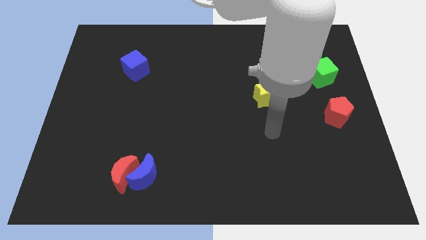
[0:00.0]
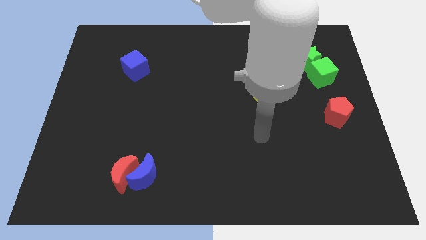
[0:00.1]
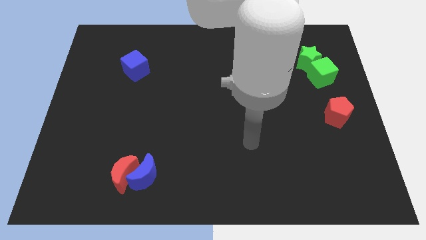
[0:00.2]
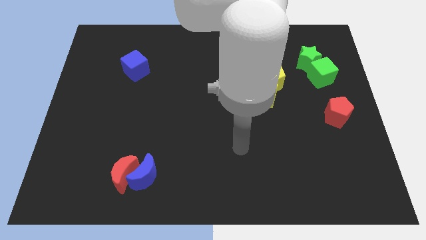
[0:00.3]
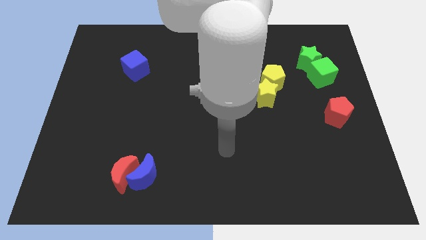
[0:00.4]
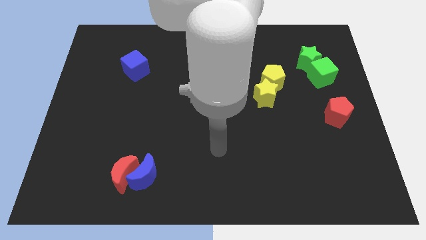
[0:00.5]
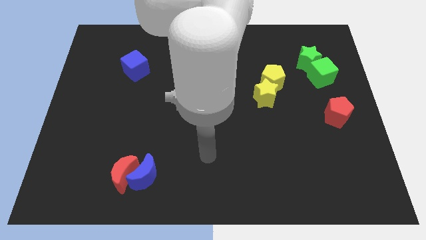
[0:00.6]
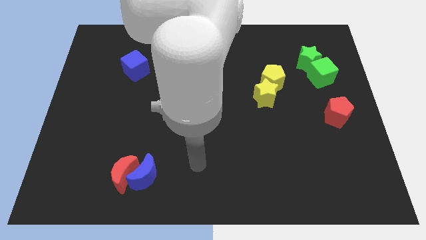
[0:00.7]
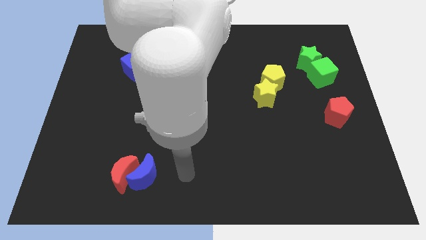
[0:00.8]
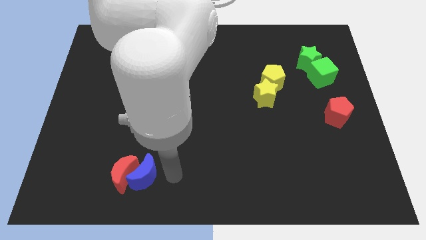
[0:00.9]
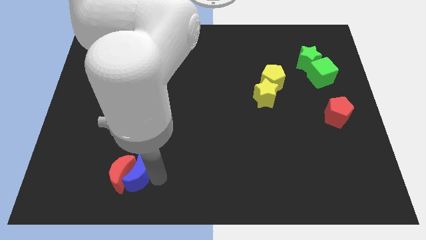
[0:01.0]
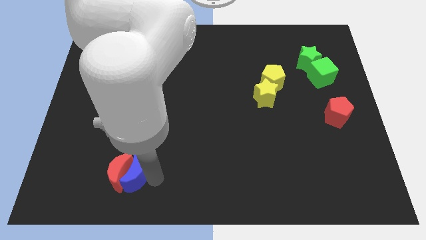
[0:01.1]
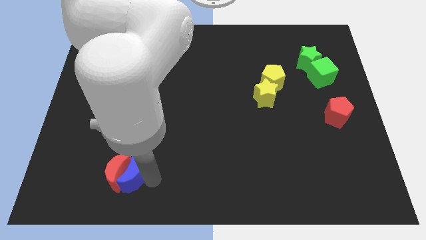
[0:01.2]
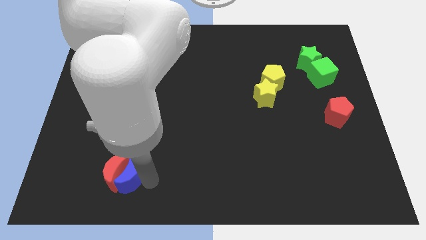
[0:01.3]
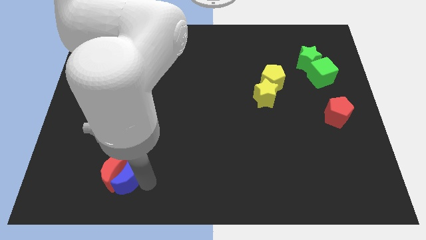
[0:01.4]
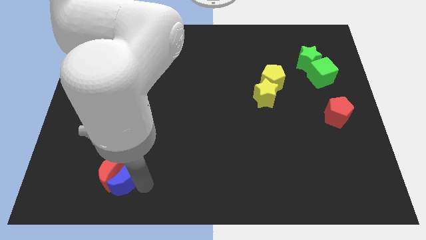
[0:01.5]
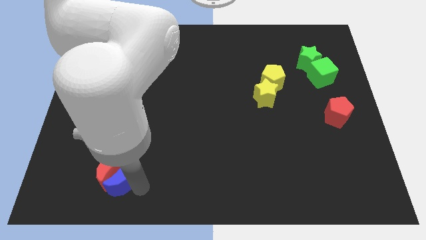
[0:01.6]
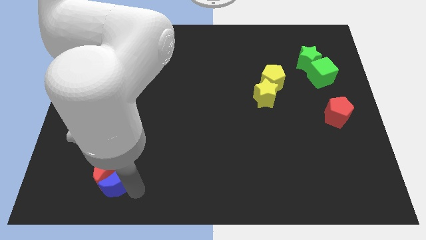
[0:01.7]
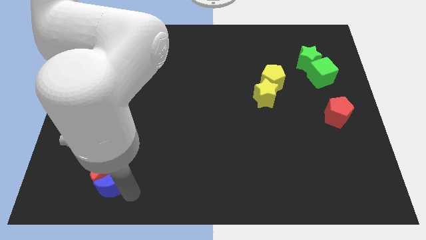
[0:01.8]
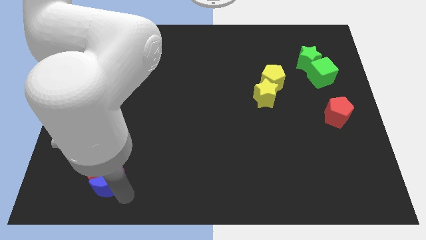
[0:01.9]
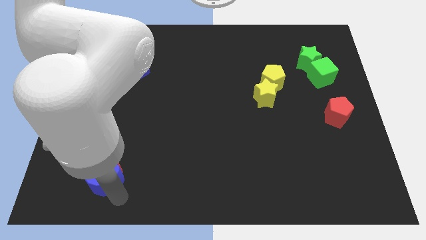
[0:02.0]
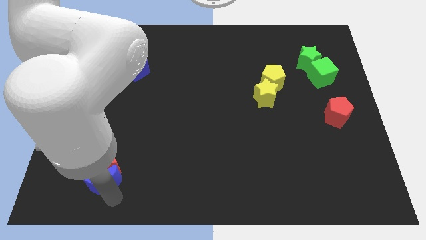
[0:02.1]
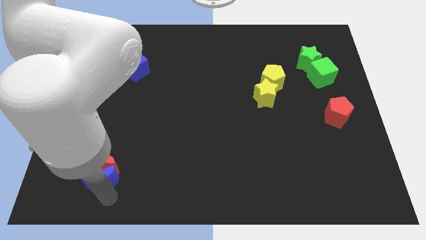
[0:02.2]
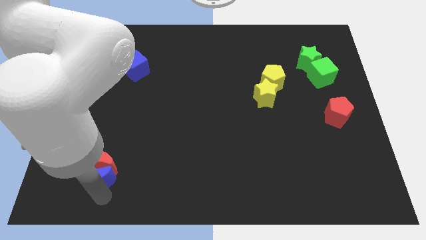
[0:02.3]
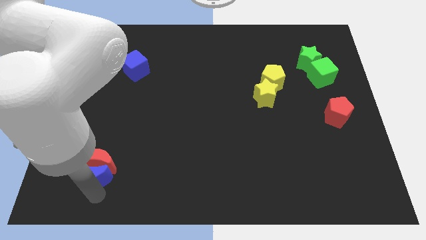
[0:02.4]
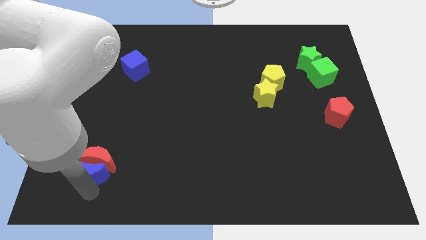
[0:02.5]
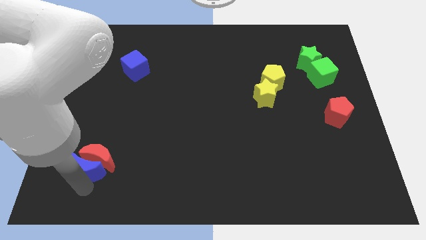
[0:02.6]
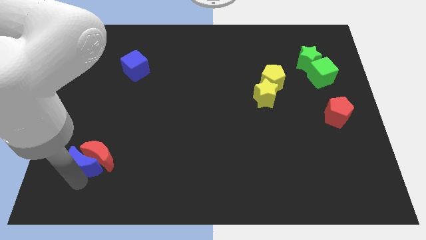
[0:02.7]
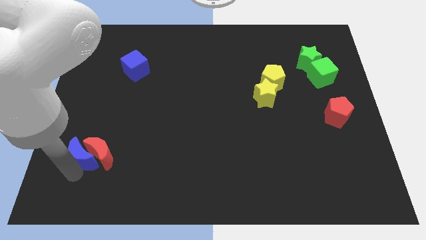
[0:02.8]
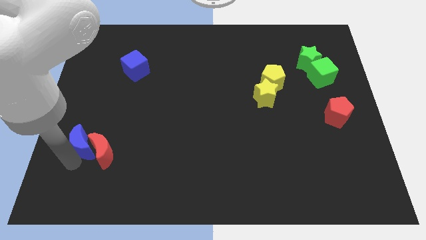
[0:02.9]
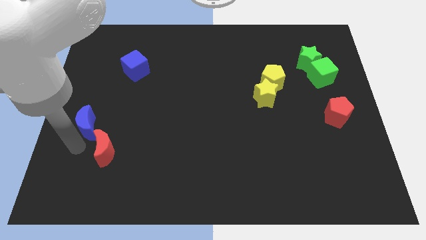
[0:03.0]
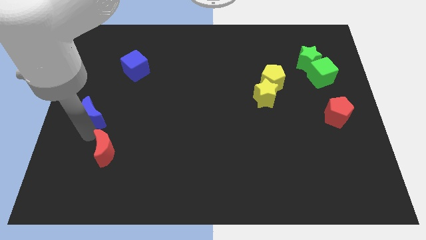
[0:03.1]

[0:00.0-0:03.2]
separate the red moon from the blue moon

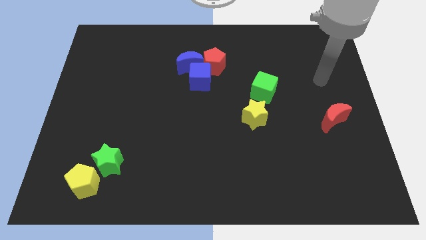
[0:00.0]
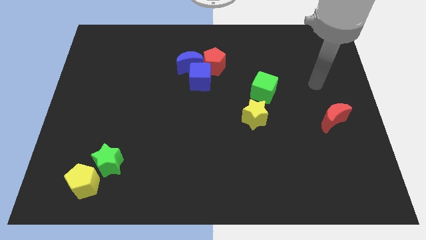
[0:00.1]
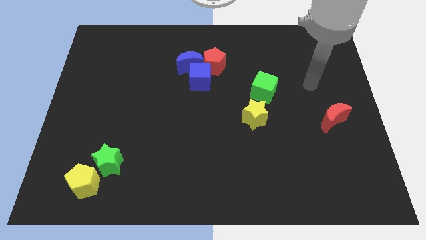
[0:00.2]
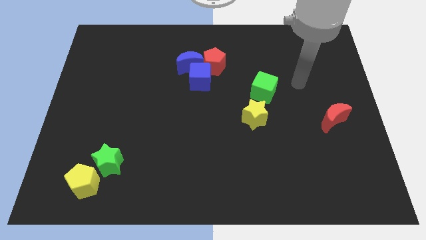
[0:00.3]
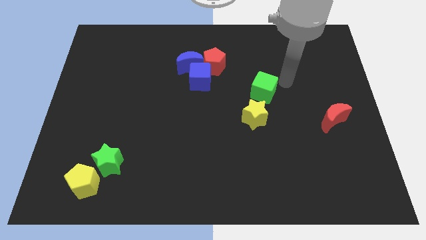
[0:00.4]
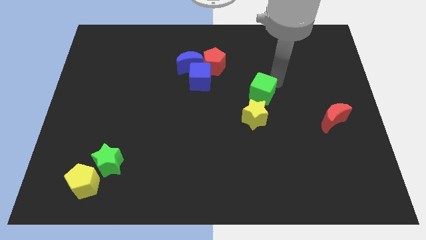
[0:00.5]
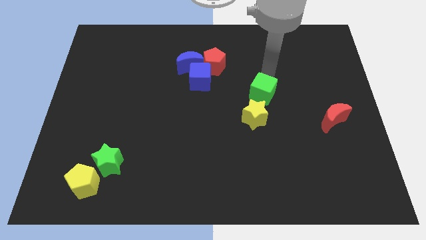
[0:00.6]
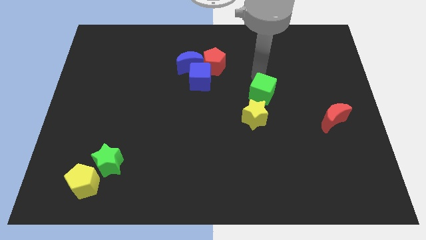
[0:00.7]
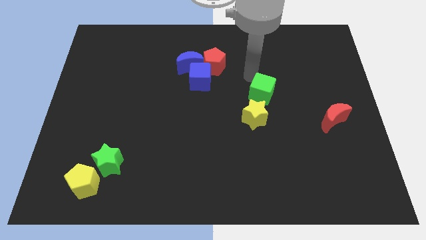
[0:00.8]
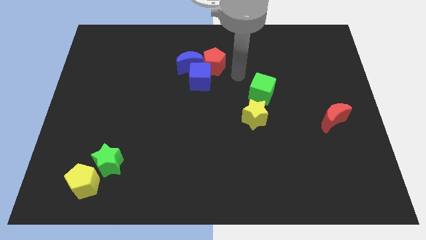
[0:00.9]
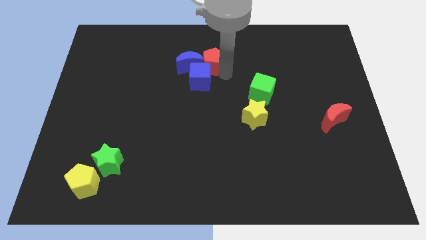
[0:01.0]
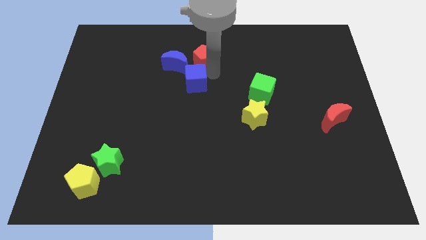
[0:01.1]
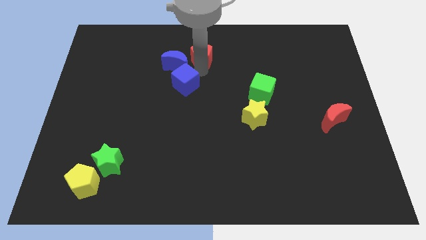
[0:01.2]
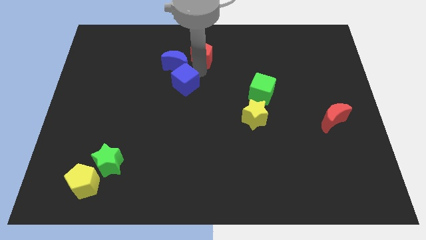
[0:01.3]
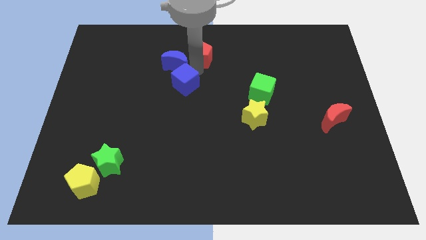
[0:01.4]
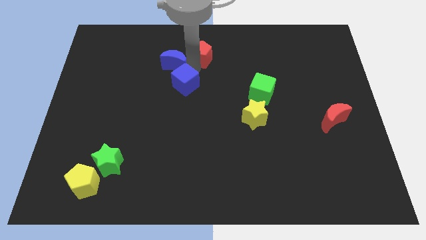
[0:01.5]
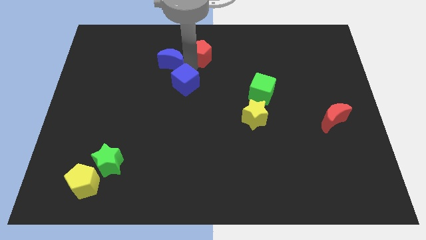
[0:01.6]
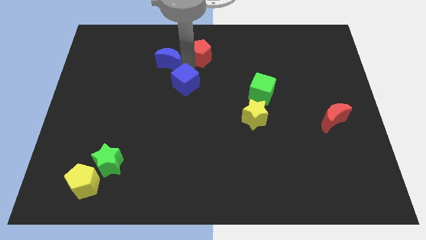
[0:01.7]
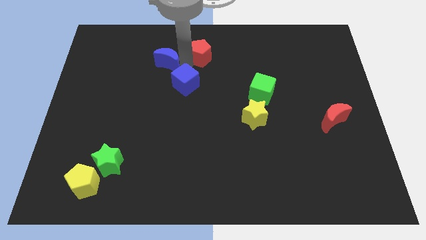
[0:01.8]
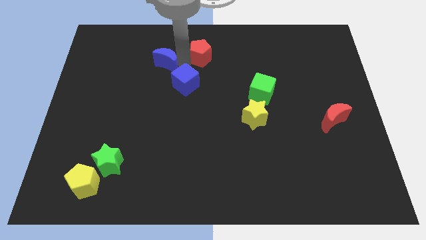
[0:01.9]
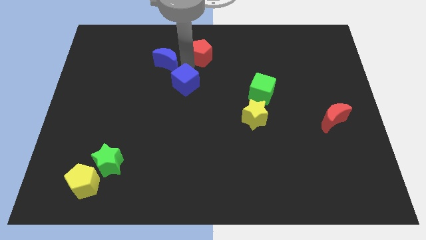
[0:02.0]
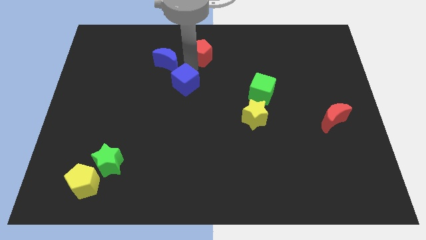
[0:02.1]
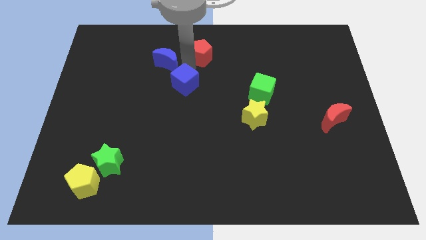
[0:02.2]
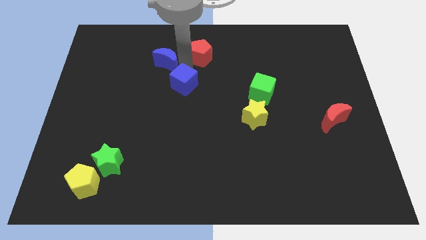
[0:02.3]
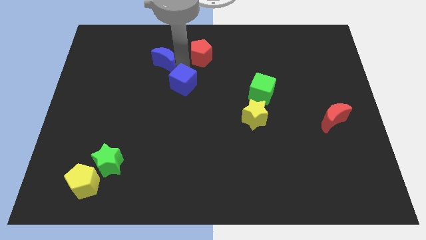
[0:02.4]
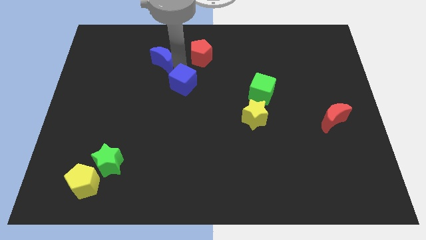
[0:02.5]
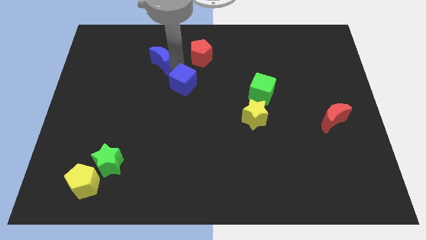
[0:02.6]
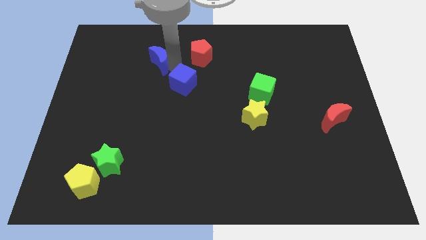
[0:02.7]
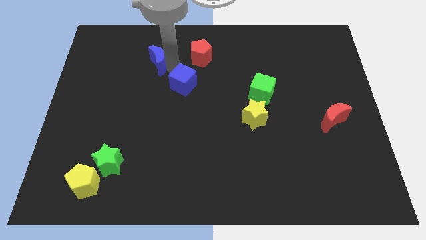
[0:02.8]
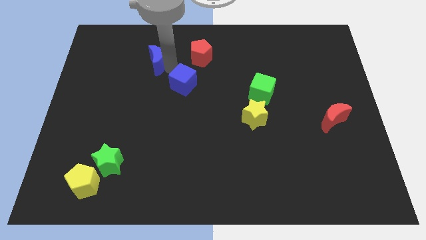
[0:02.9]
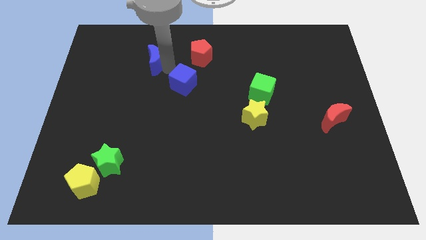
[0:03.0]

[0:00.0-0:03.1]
move the blue moon away from the blue cube and red pentagon

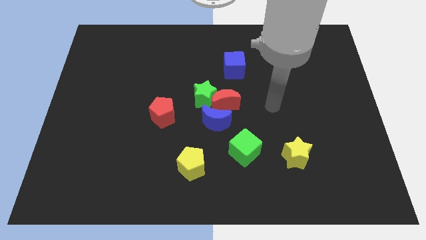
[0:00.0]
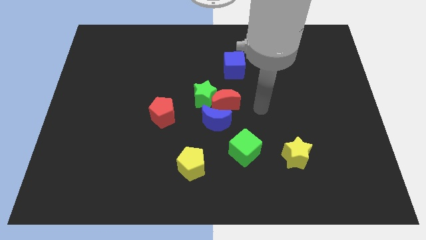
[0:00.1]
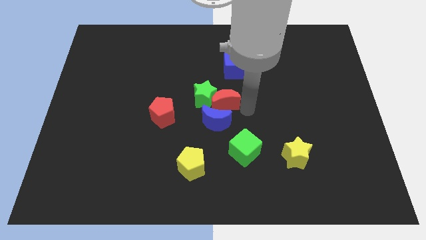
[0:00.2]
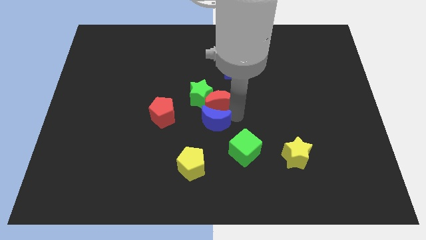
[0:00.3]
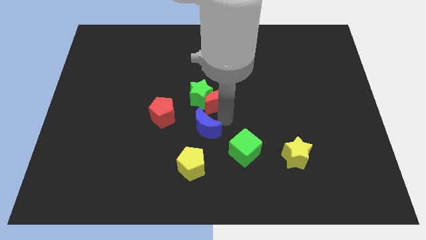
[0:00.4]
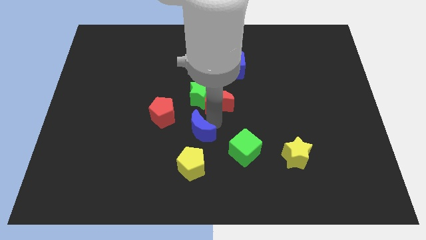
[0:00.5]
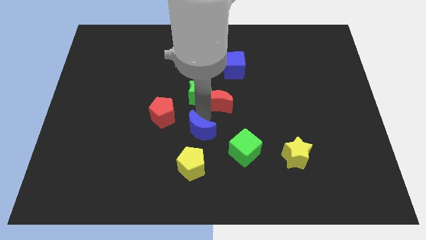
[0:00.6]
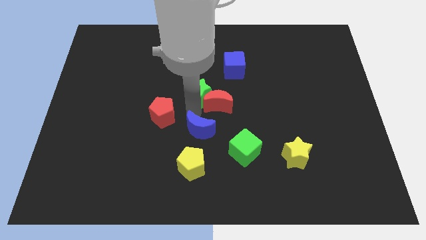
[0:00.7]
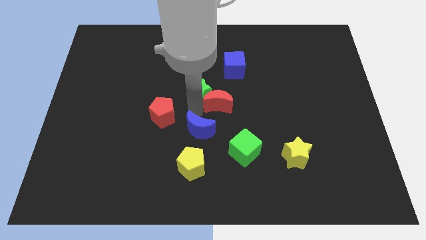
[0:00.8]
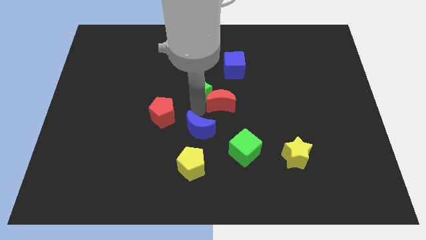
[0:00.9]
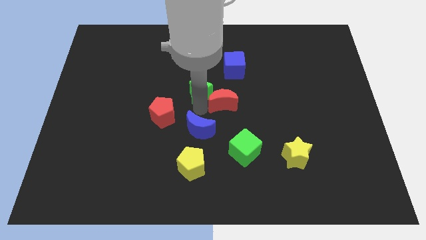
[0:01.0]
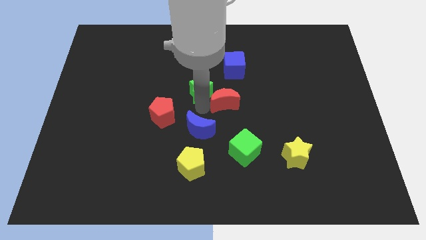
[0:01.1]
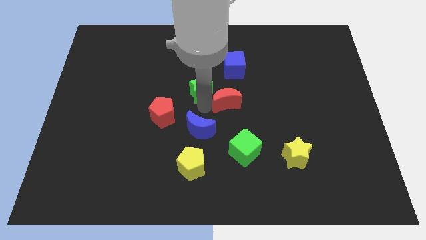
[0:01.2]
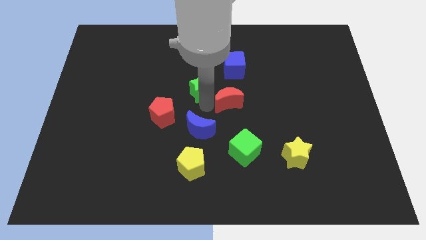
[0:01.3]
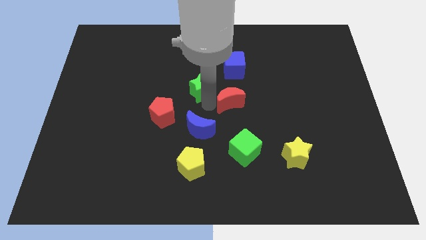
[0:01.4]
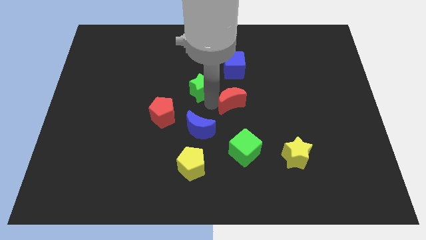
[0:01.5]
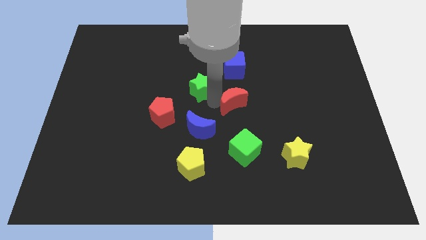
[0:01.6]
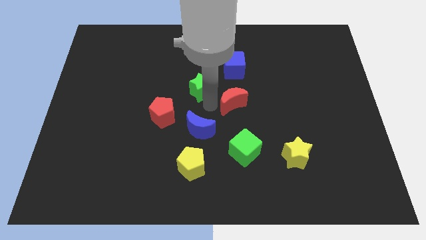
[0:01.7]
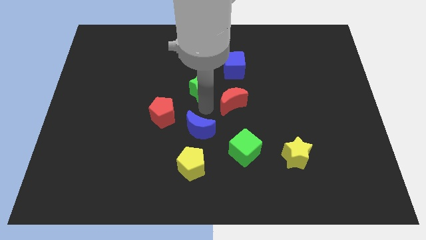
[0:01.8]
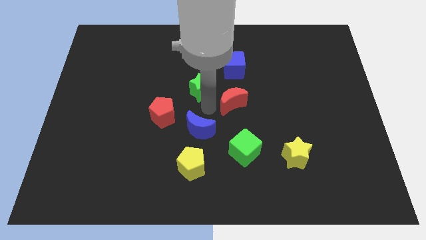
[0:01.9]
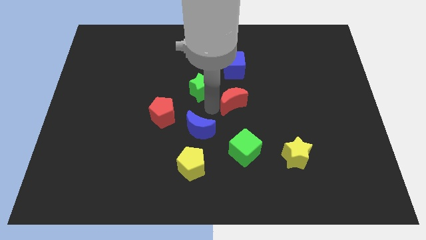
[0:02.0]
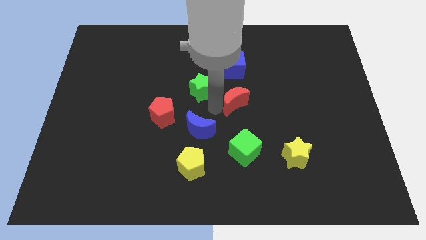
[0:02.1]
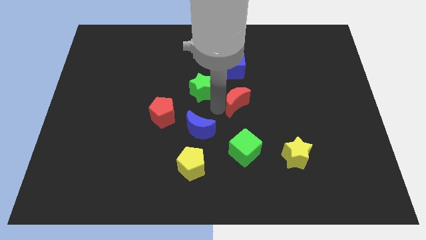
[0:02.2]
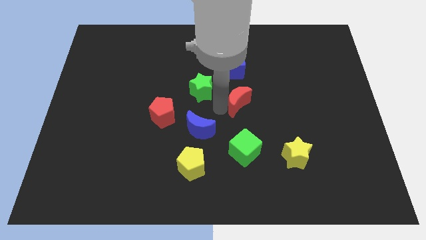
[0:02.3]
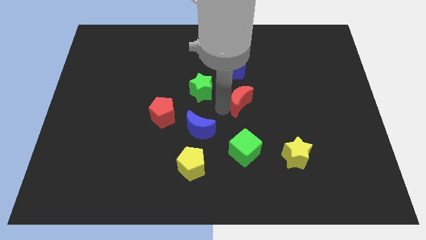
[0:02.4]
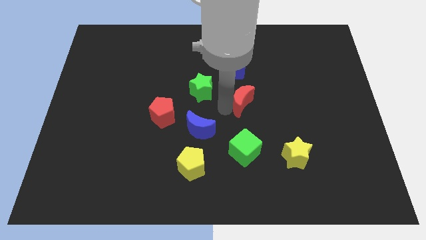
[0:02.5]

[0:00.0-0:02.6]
move the red moon away from the green star and blue moon

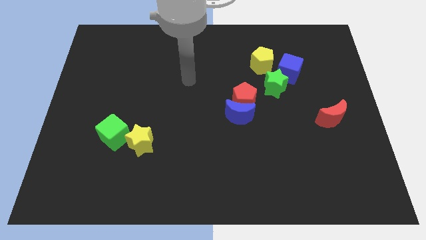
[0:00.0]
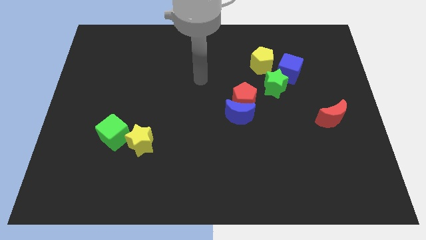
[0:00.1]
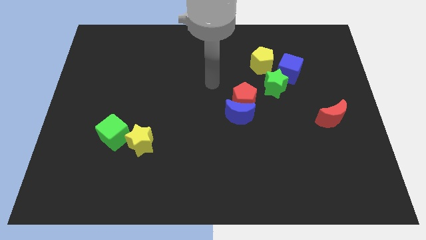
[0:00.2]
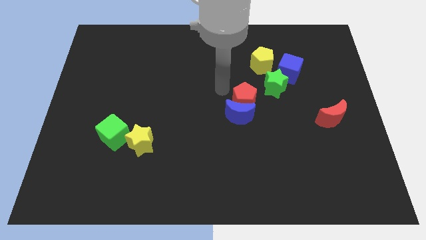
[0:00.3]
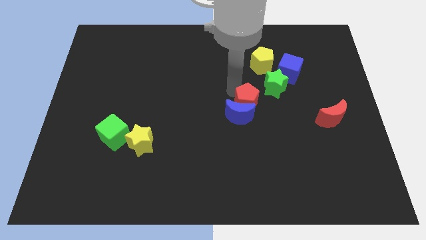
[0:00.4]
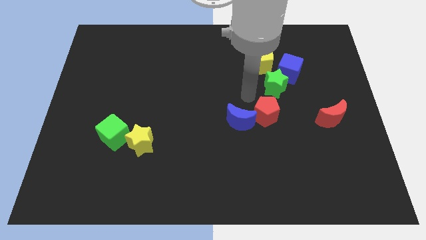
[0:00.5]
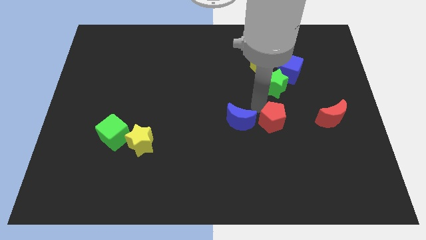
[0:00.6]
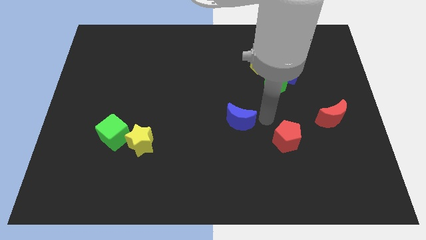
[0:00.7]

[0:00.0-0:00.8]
move the blue moon away from the red pentagon
